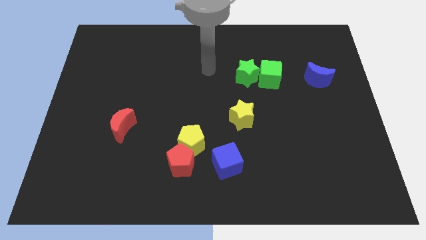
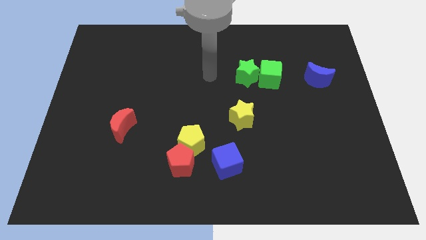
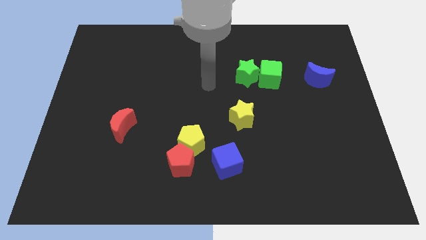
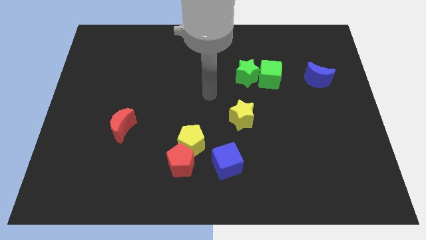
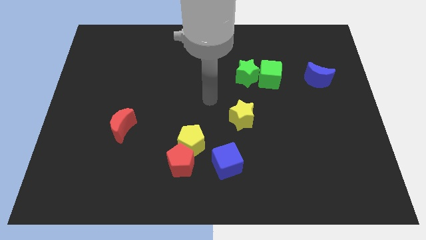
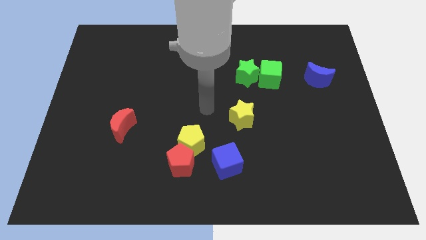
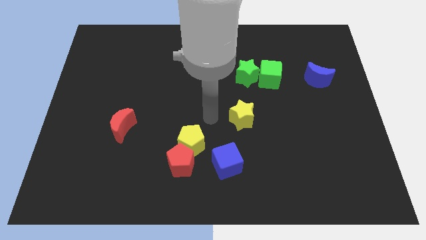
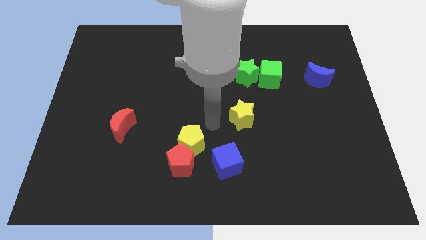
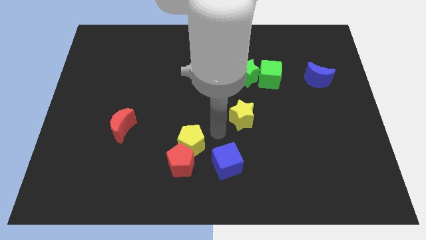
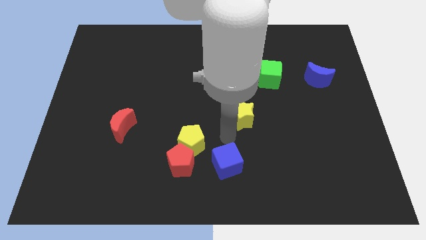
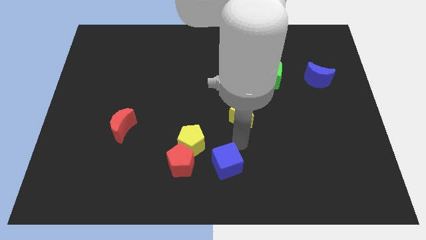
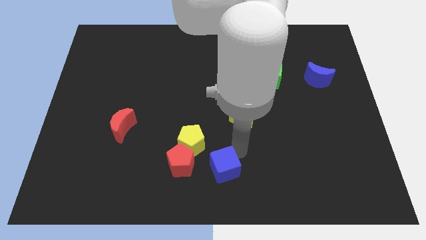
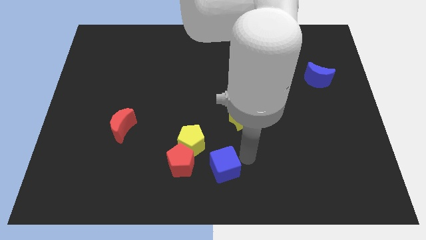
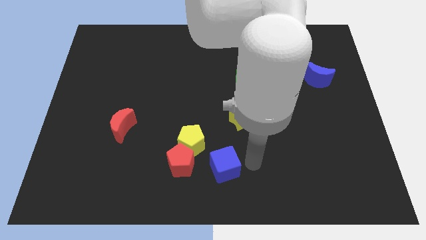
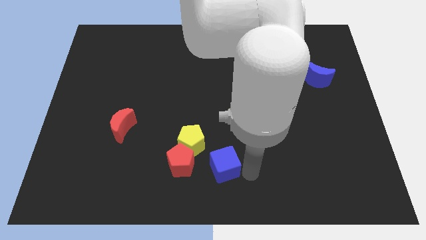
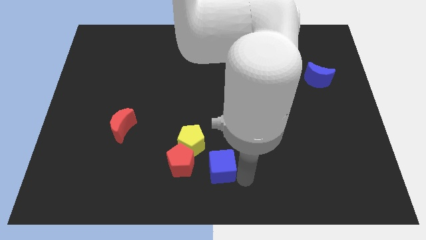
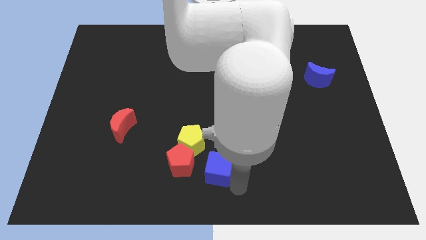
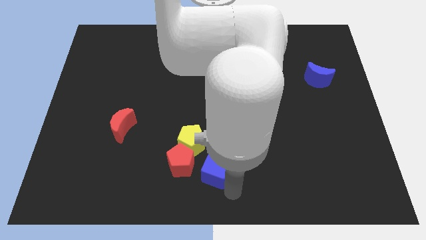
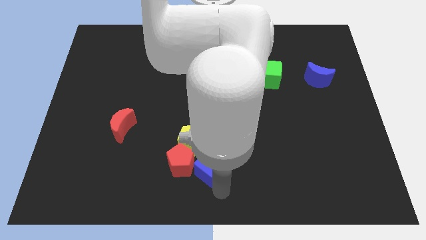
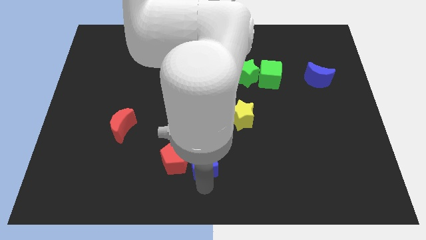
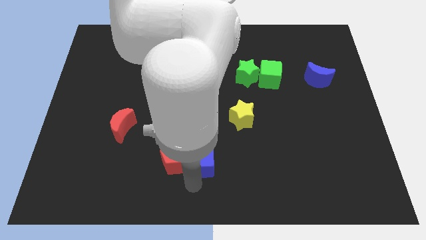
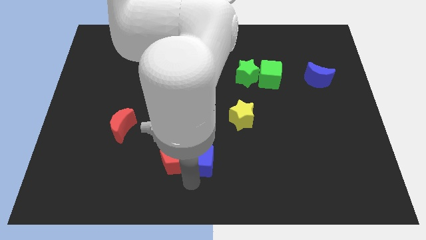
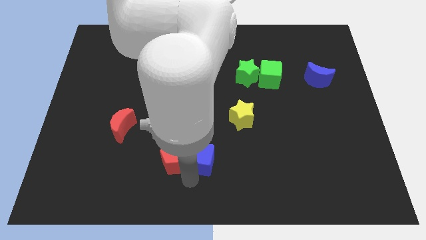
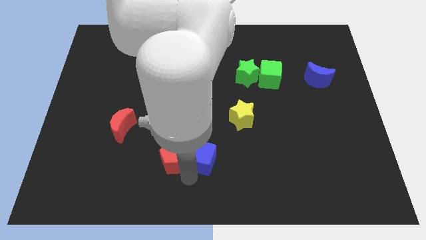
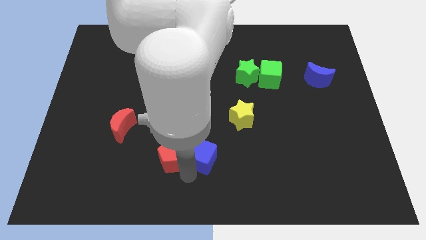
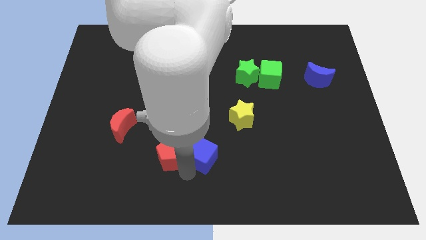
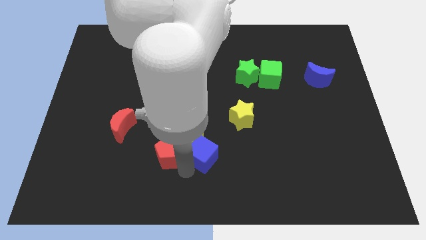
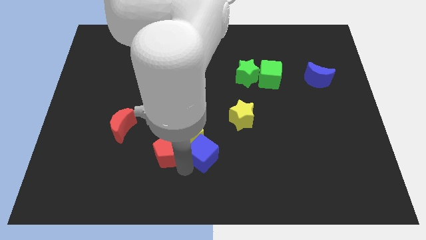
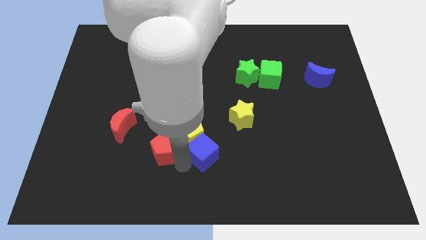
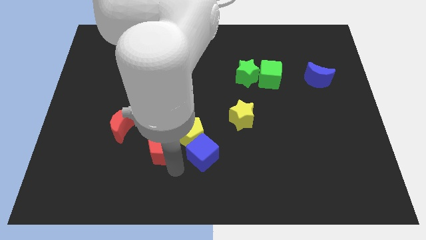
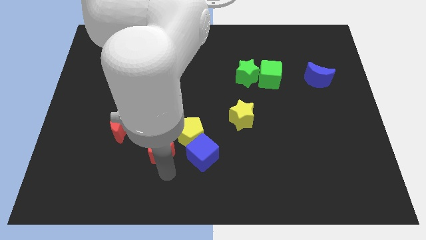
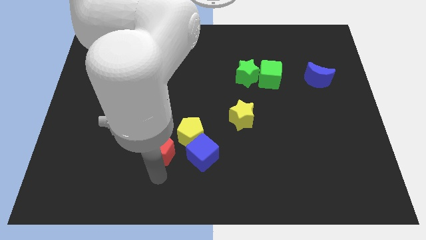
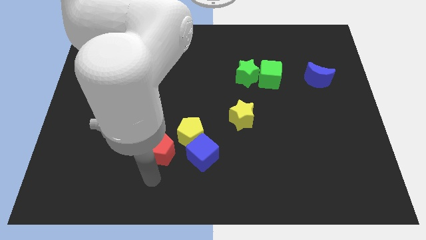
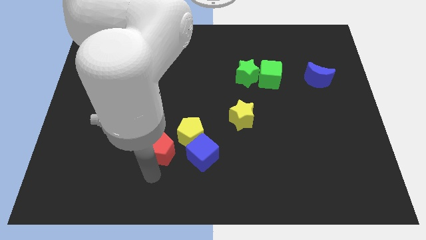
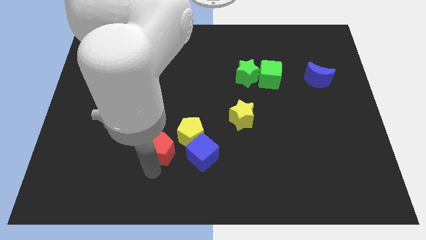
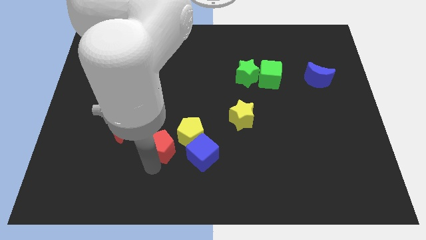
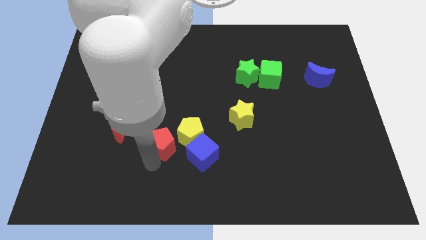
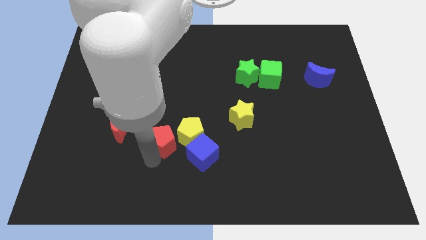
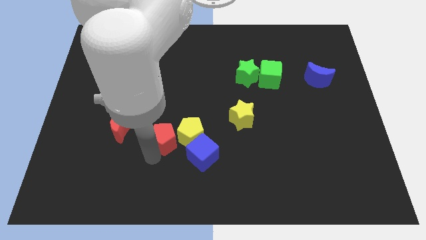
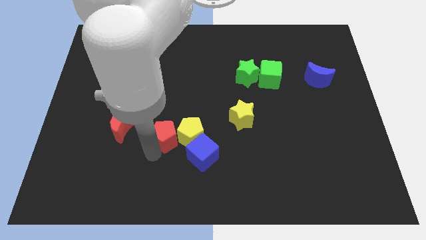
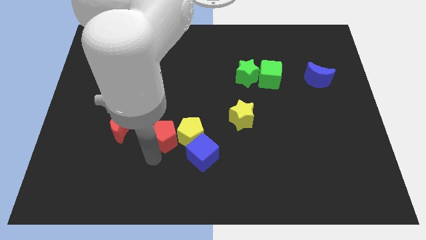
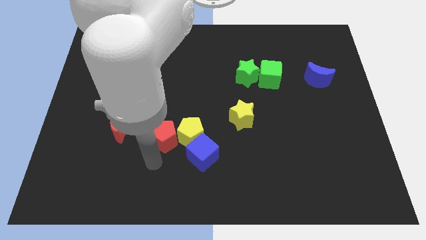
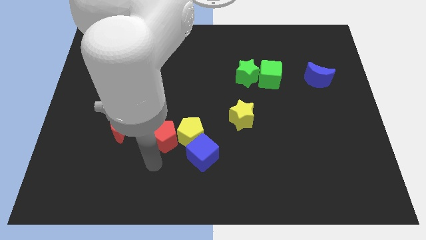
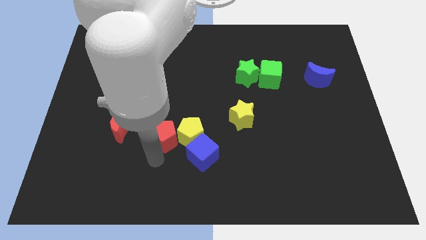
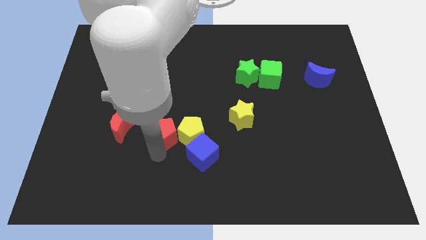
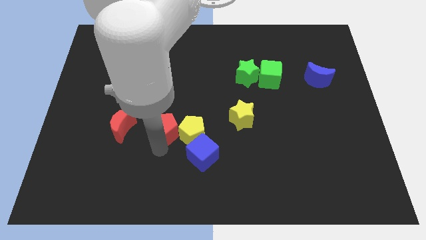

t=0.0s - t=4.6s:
slide the red pentagon upwards somewhat

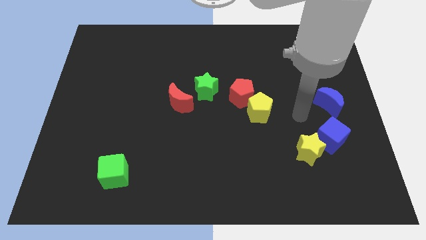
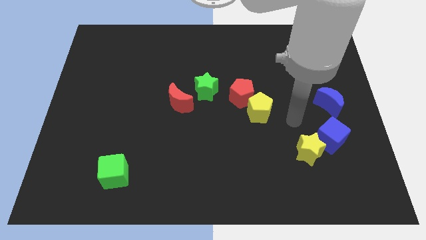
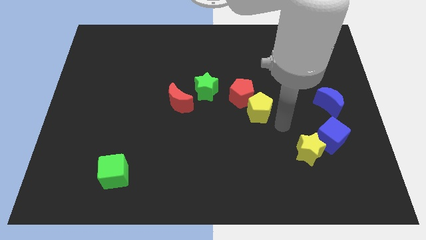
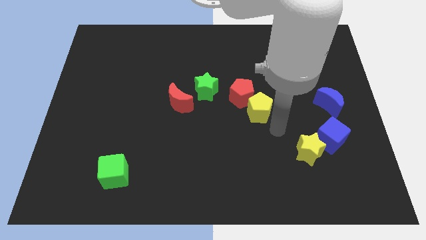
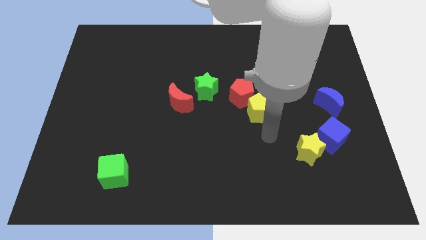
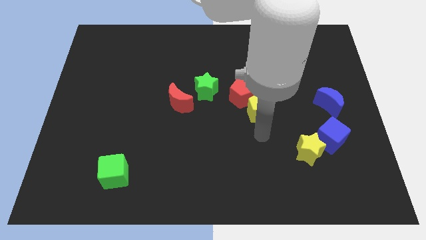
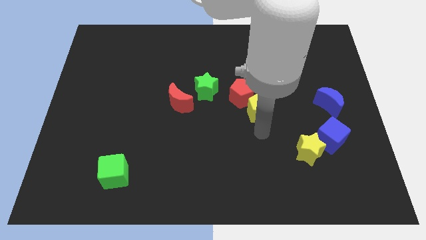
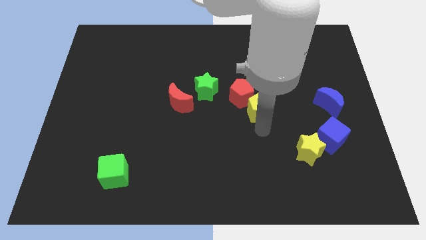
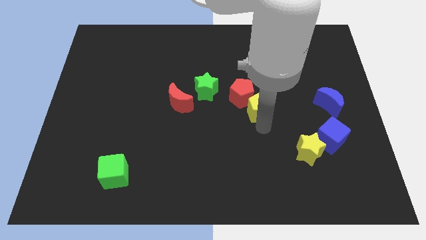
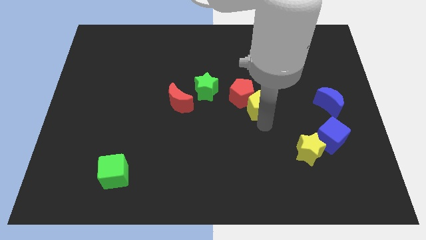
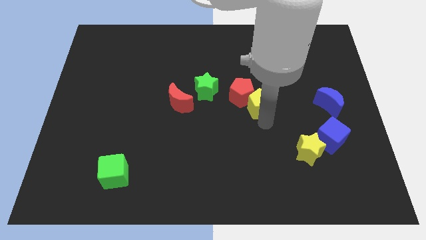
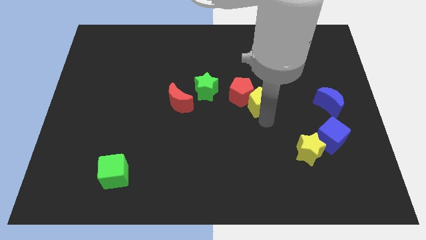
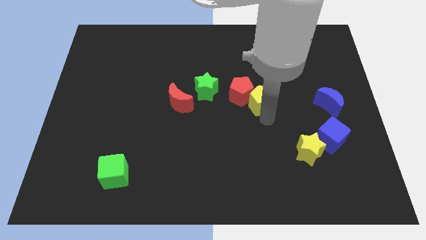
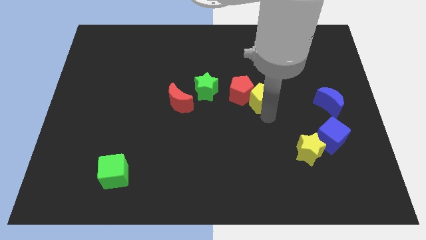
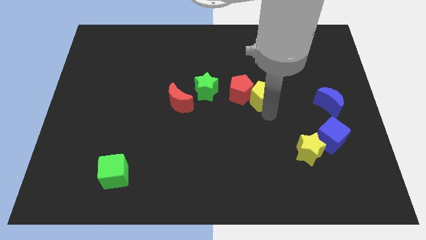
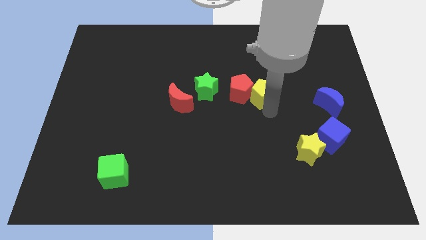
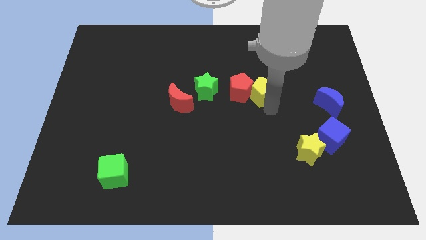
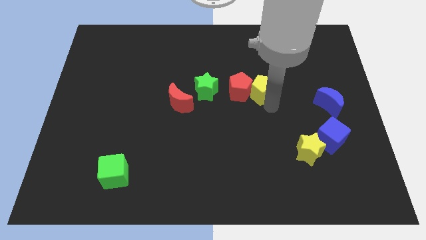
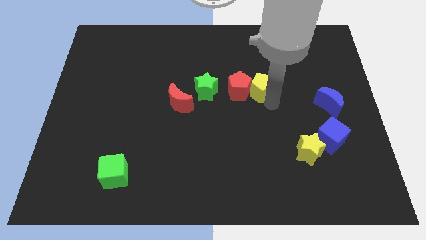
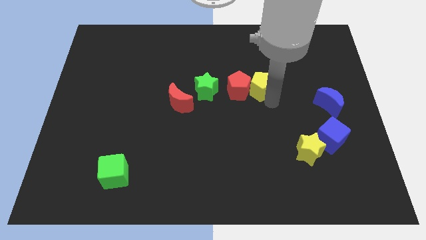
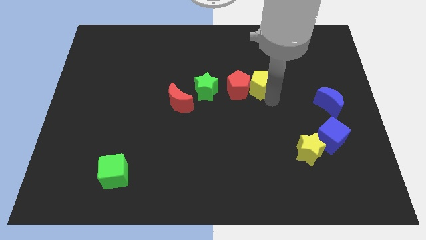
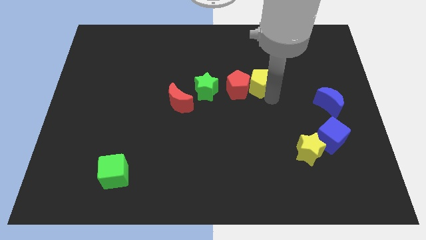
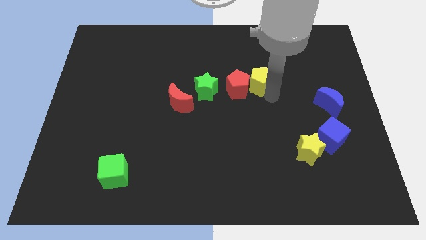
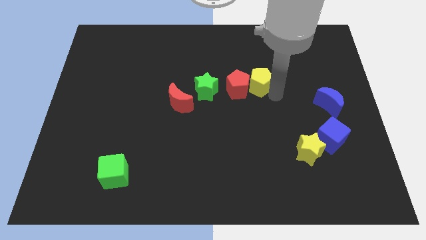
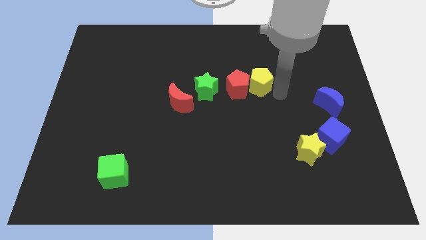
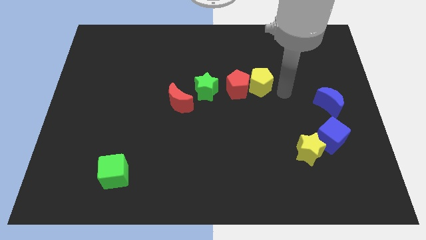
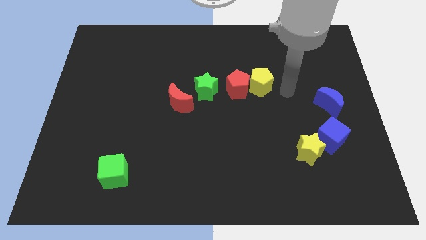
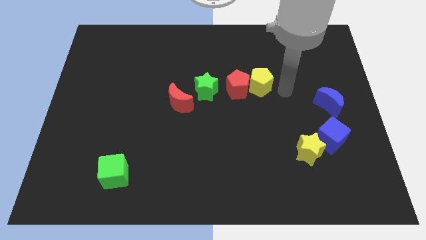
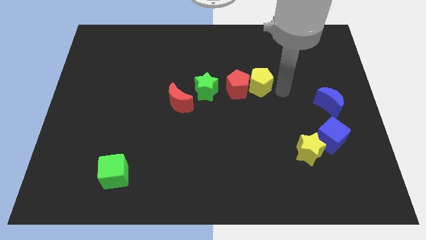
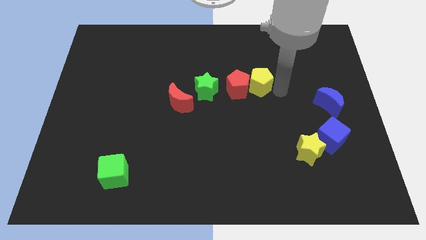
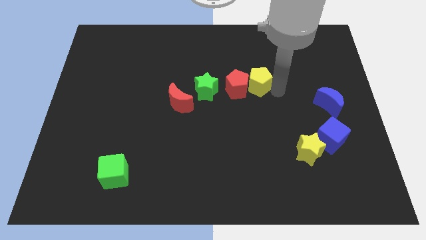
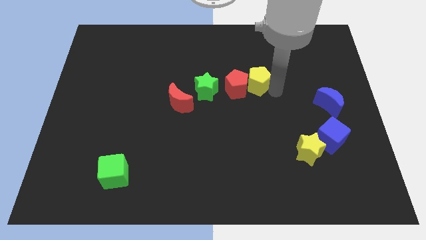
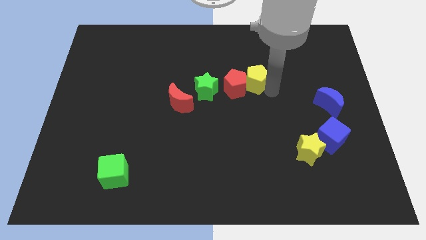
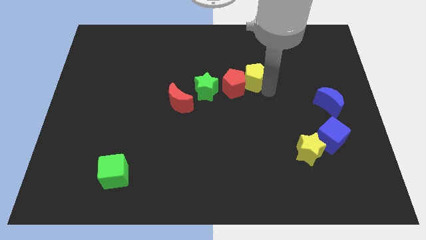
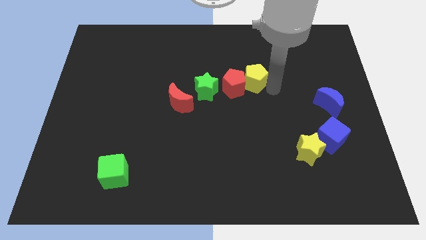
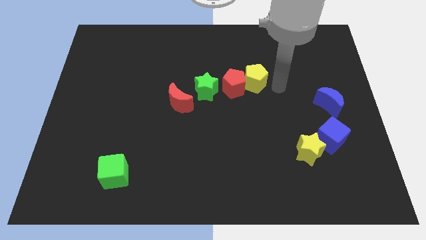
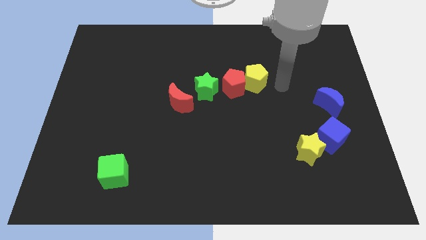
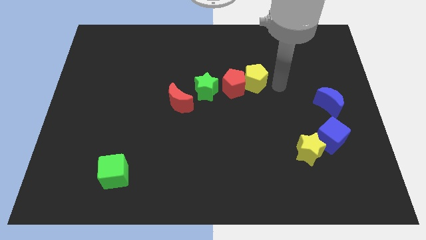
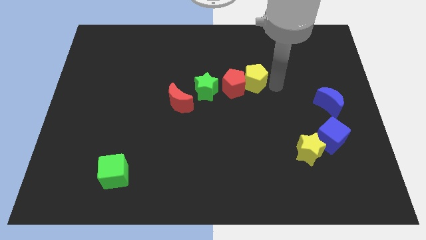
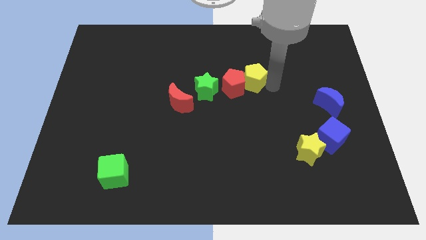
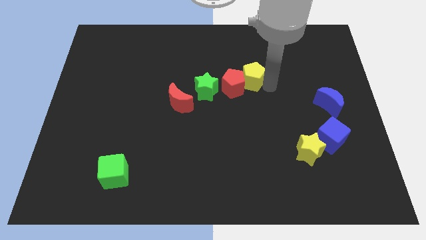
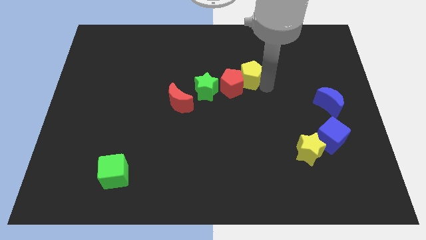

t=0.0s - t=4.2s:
slightly push the yellow pentagon up and to the left diagonally
